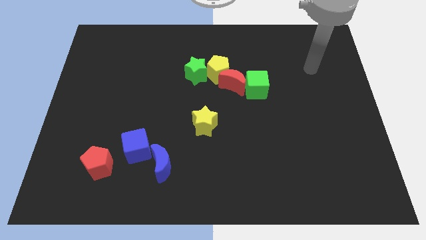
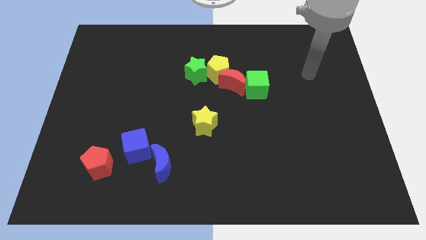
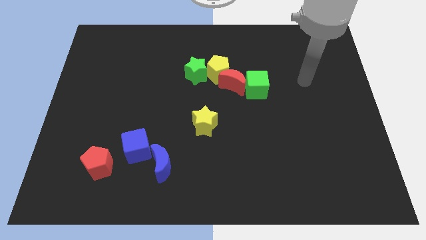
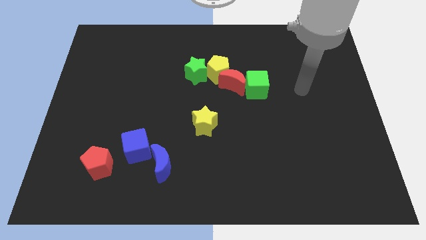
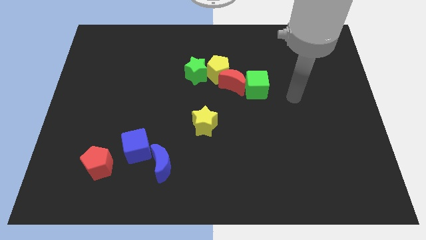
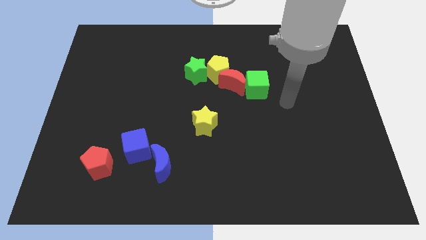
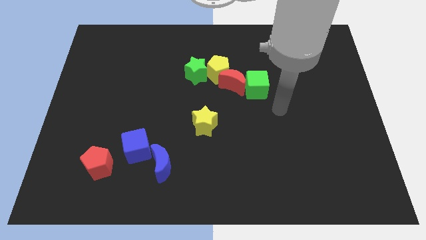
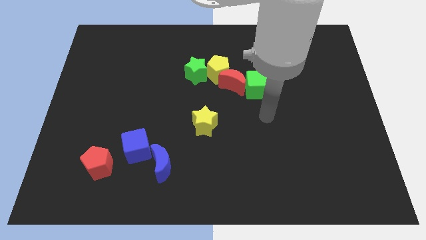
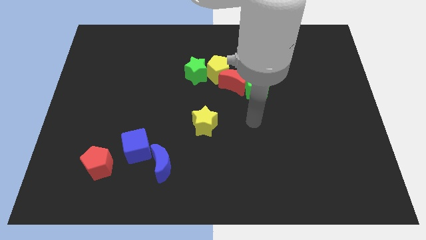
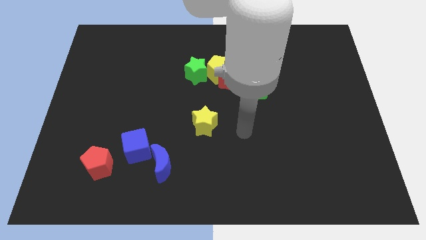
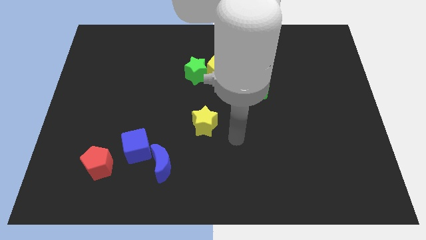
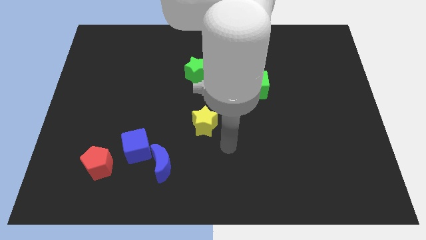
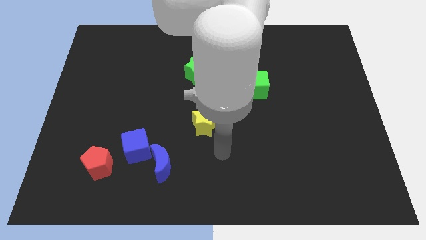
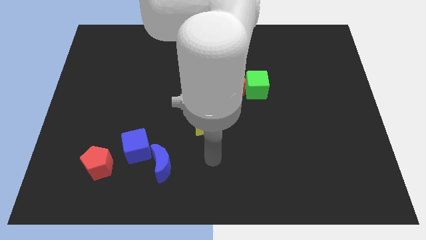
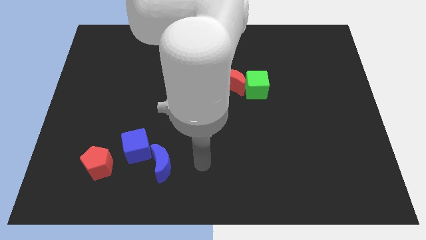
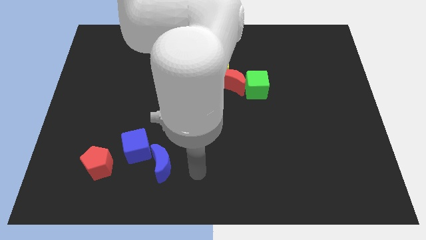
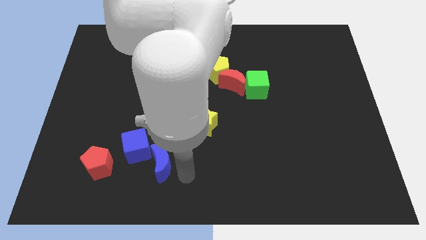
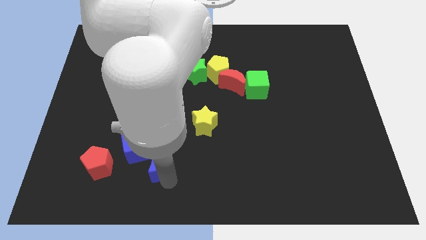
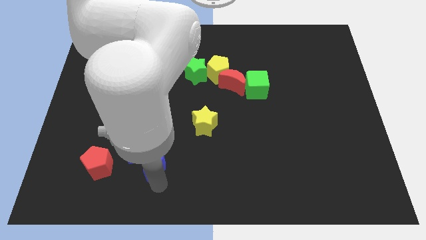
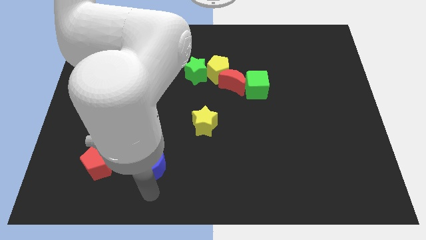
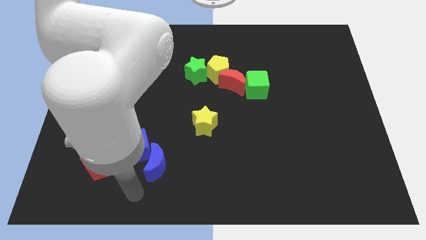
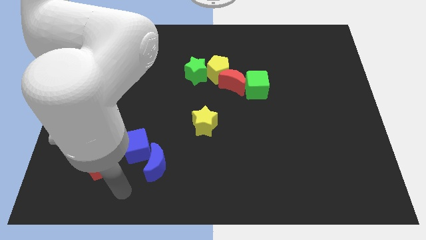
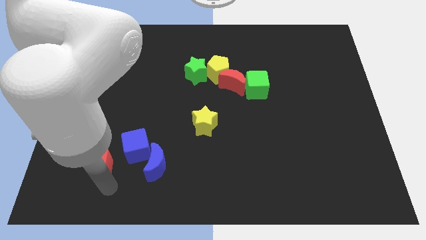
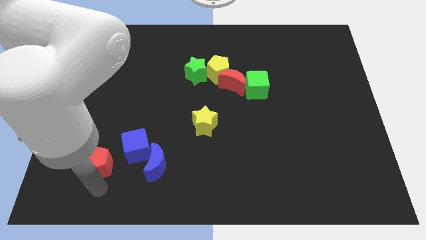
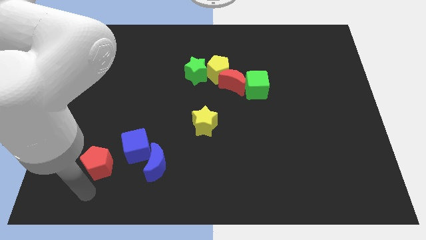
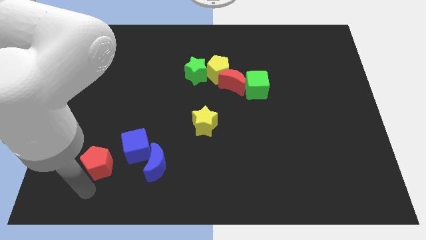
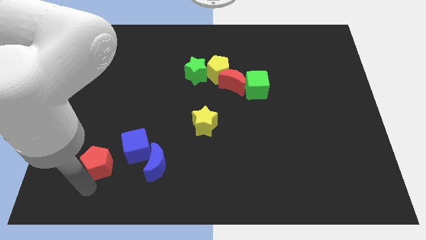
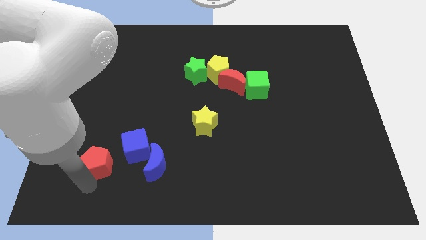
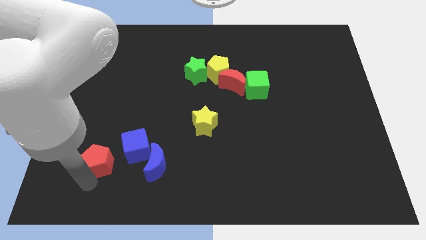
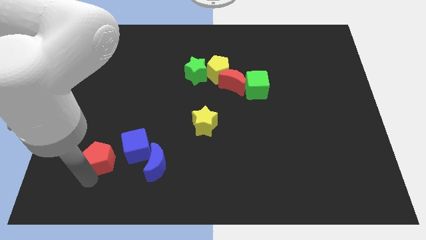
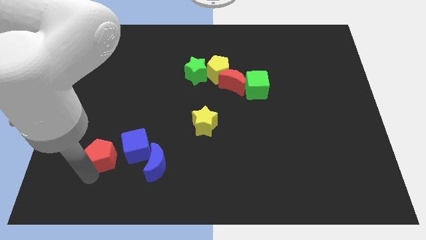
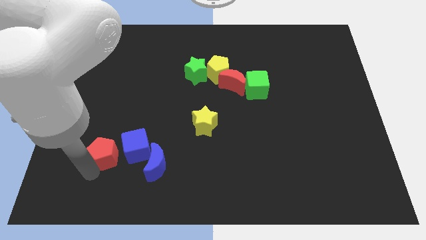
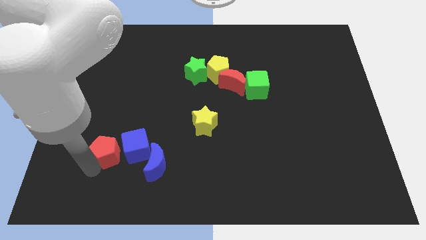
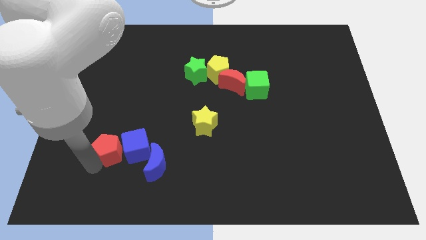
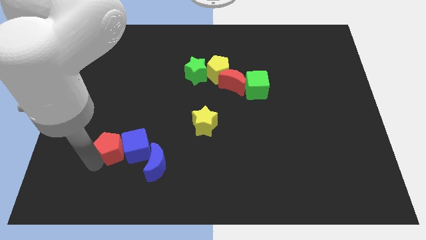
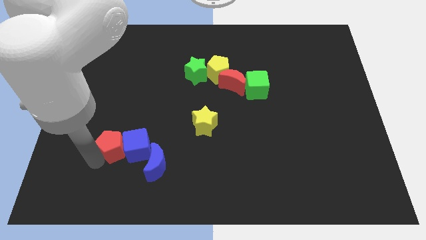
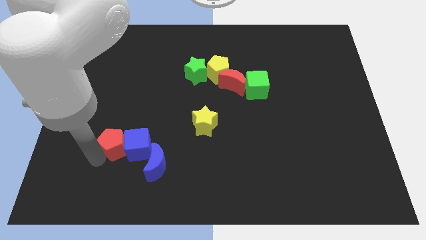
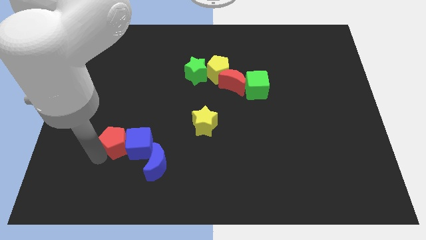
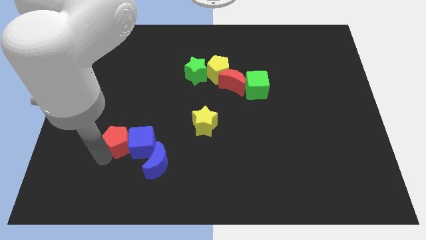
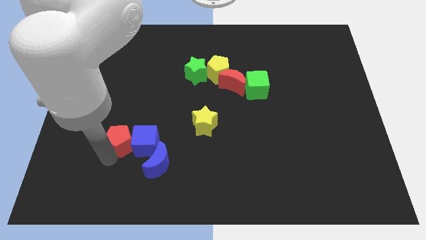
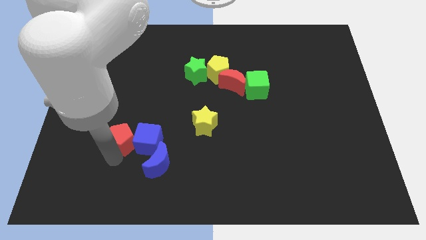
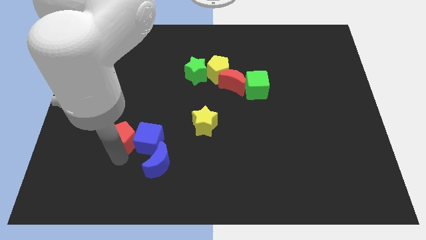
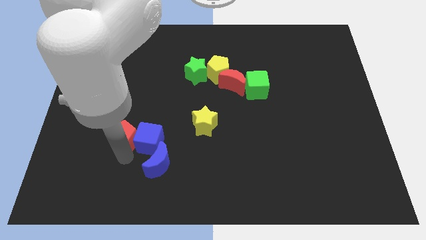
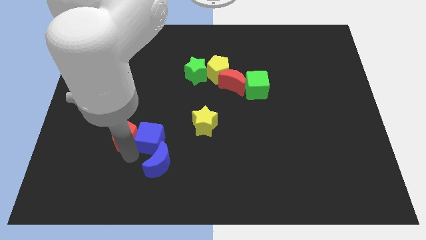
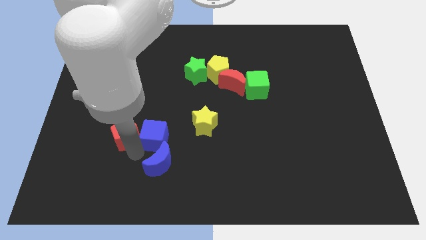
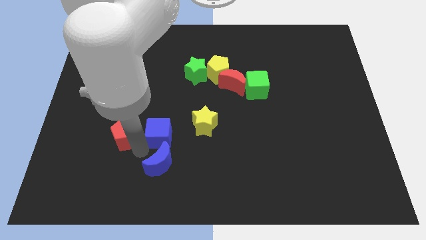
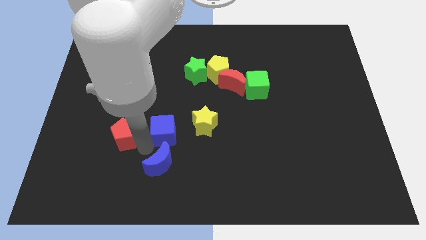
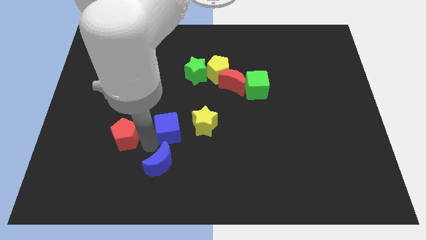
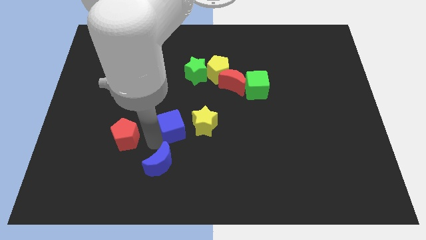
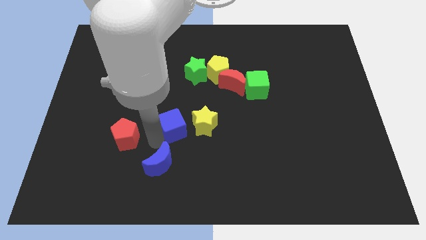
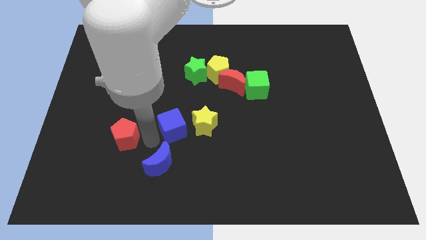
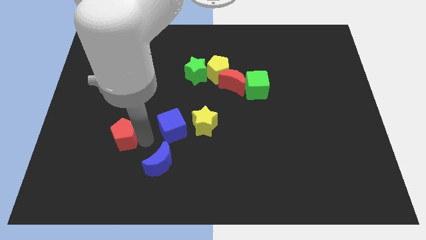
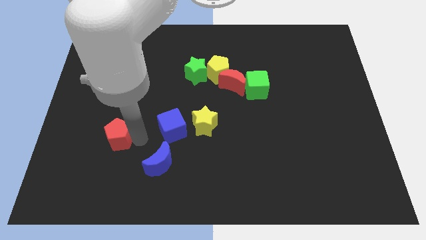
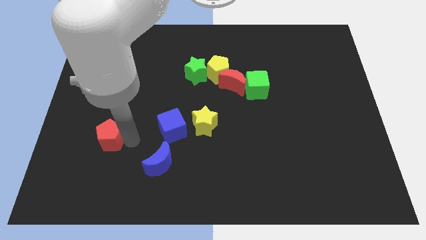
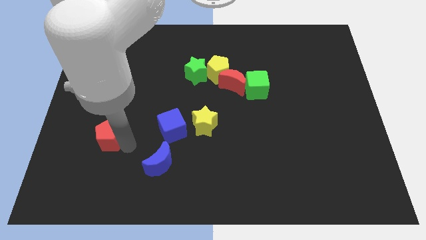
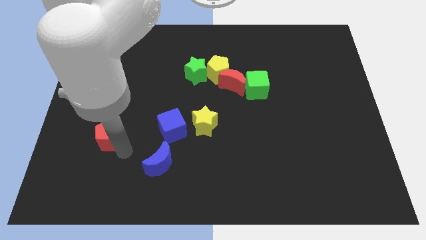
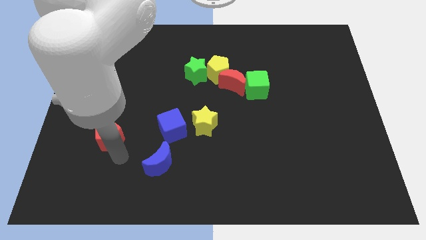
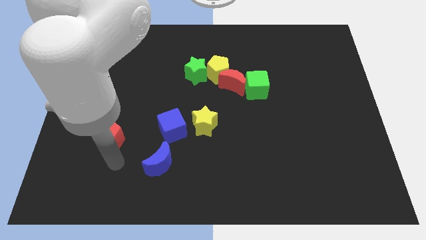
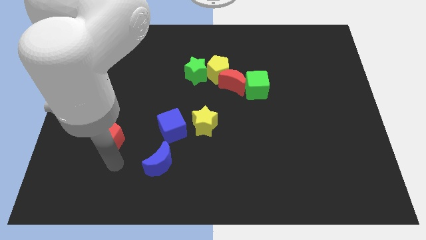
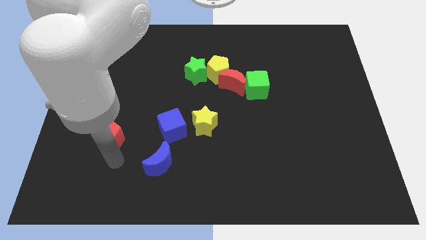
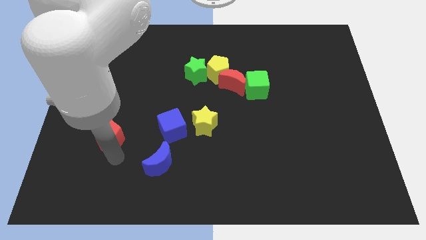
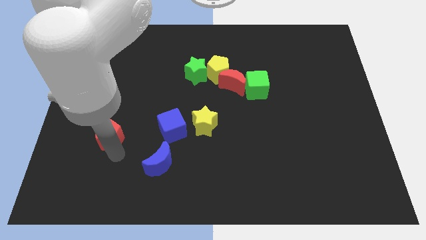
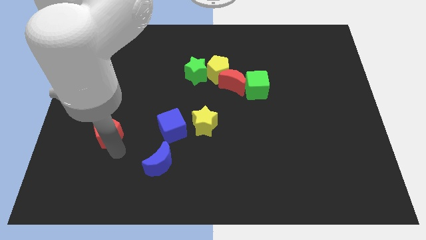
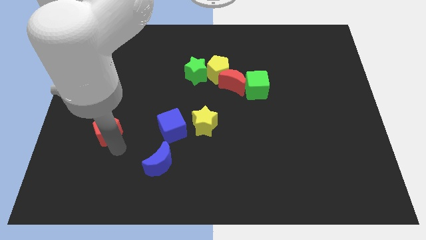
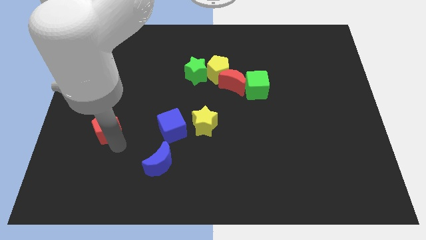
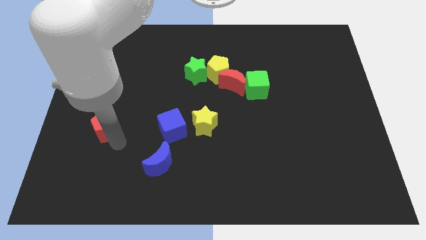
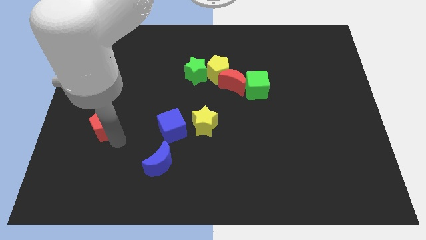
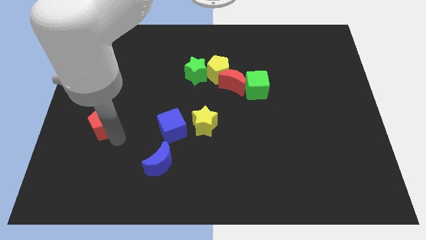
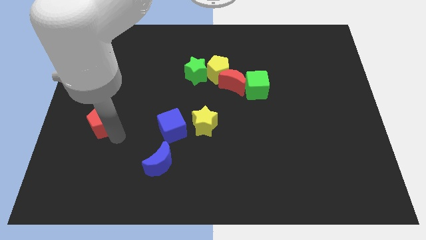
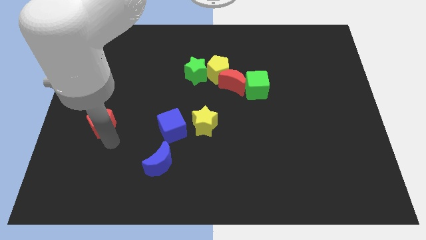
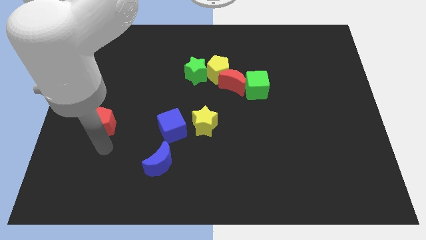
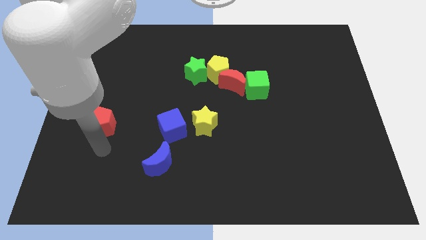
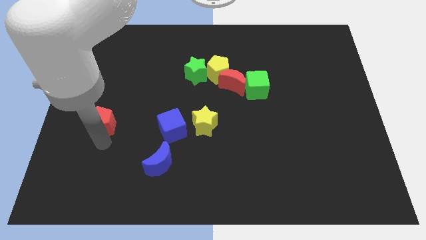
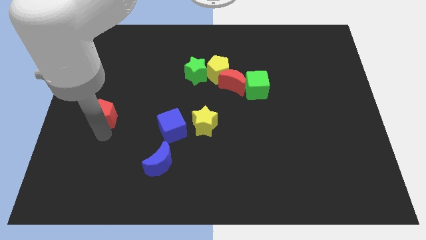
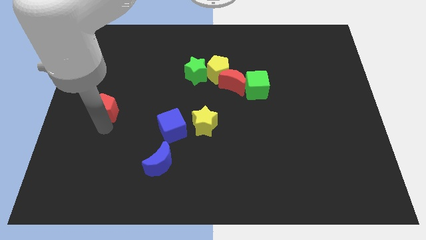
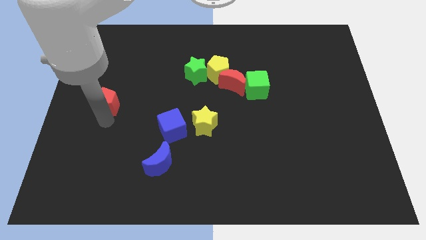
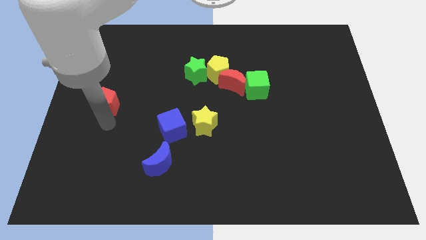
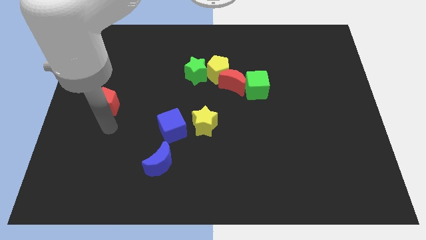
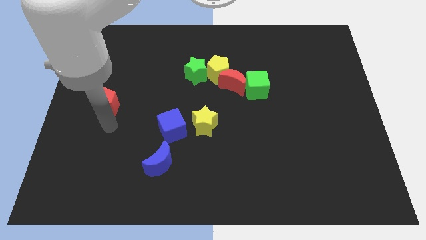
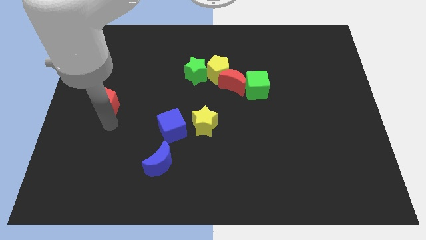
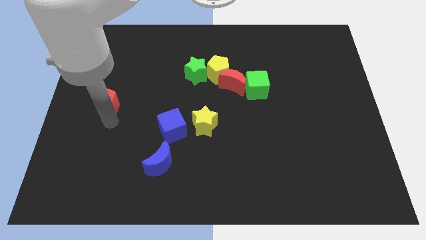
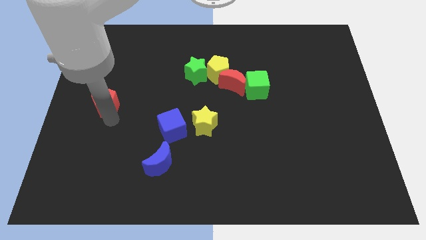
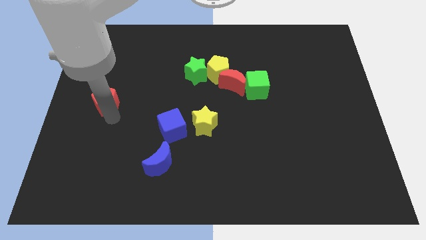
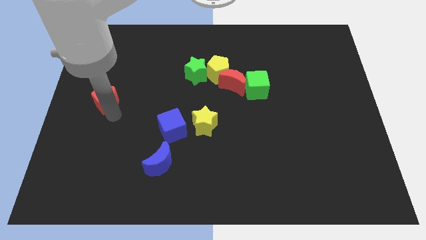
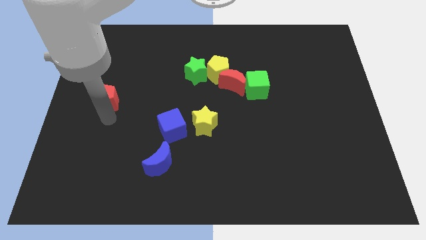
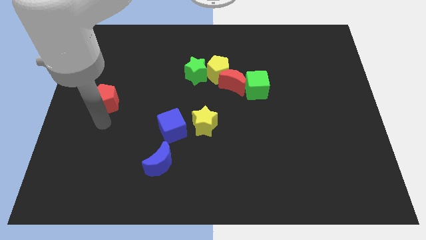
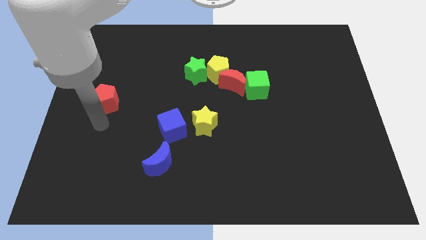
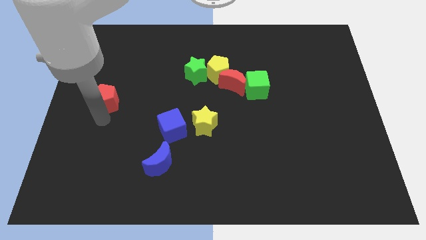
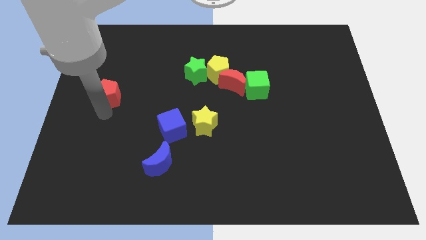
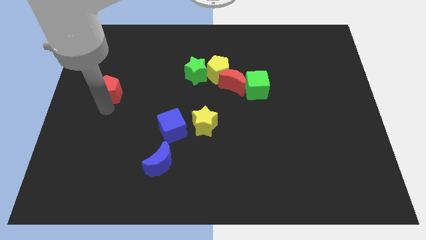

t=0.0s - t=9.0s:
slide the red pentagon up
